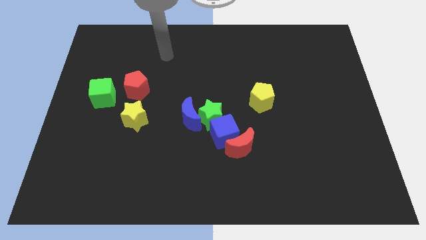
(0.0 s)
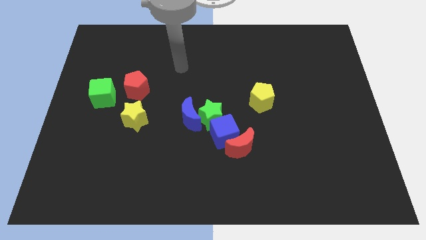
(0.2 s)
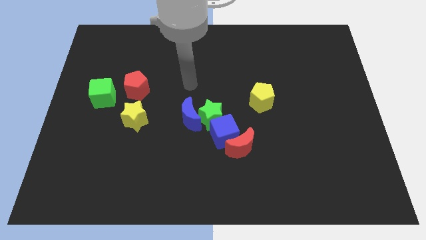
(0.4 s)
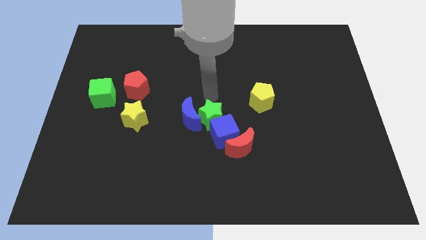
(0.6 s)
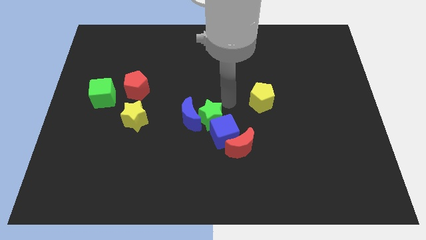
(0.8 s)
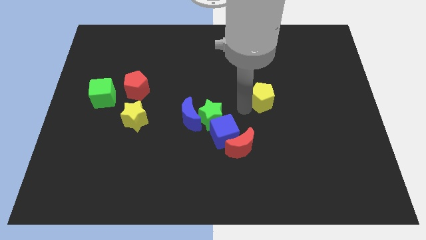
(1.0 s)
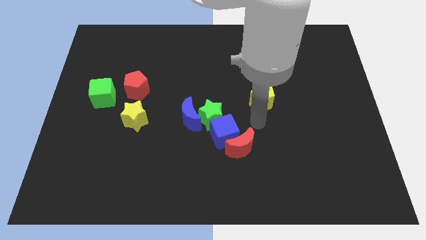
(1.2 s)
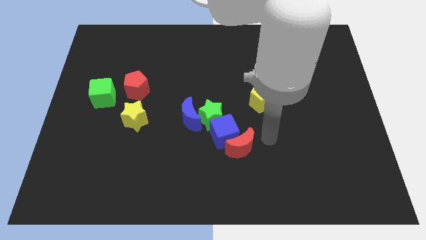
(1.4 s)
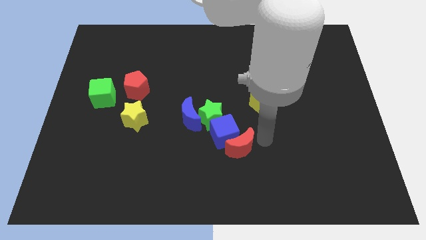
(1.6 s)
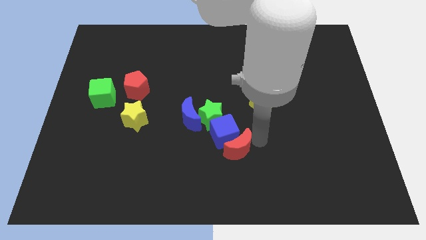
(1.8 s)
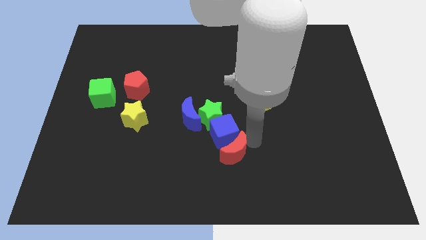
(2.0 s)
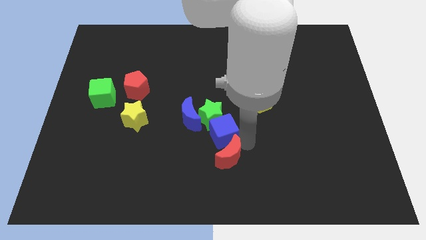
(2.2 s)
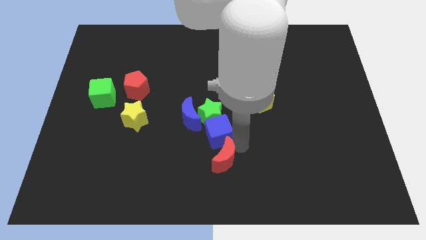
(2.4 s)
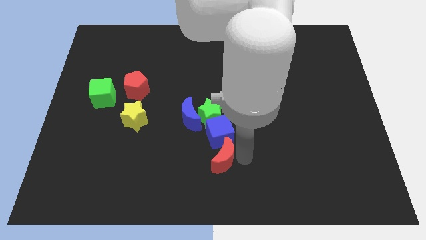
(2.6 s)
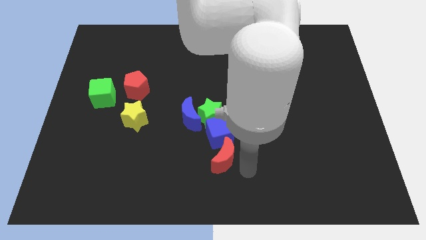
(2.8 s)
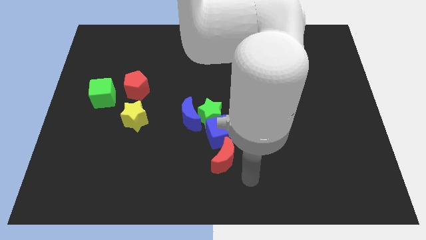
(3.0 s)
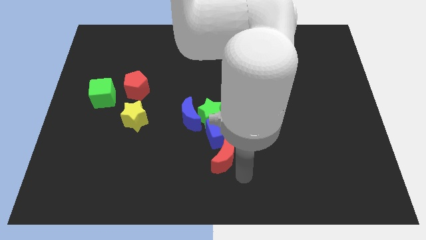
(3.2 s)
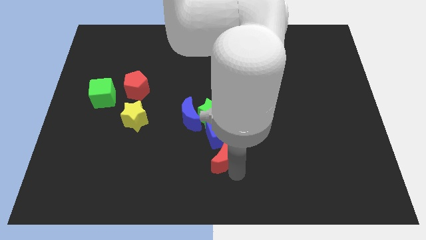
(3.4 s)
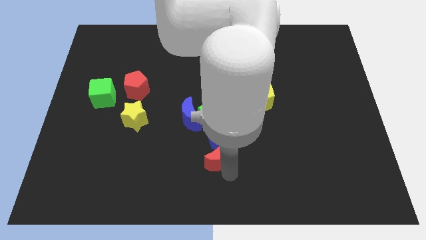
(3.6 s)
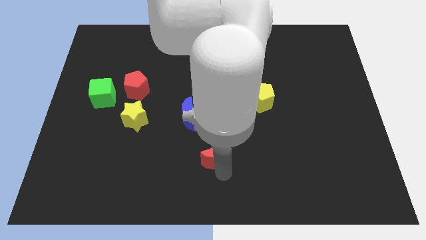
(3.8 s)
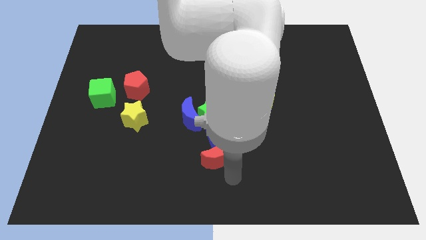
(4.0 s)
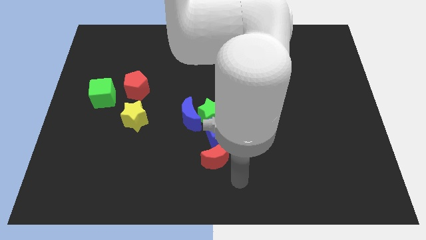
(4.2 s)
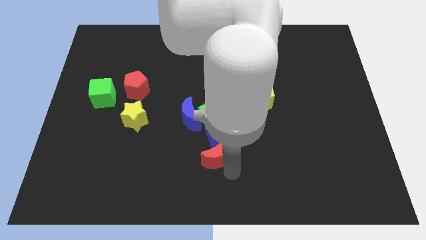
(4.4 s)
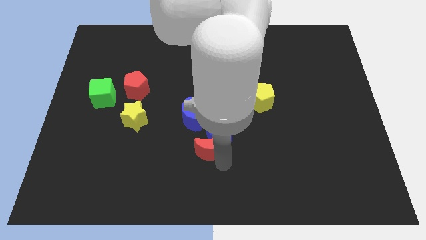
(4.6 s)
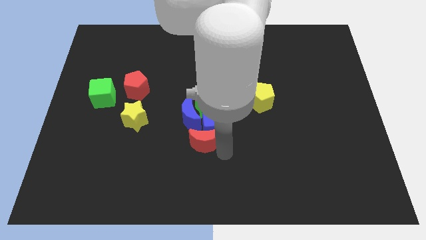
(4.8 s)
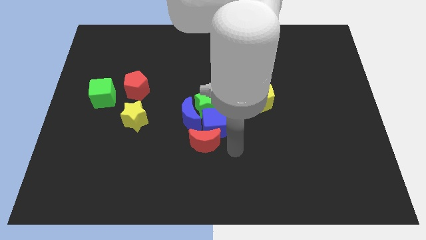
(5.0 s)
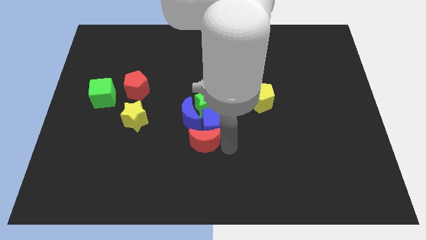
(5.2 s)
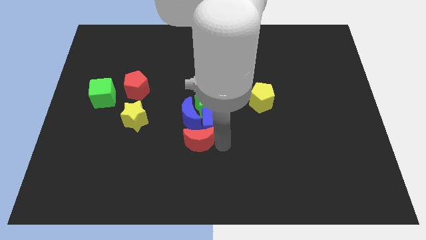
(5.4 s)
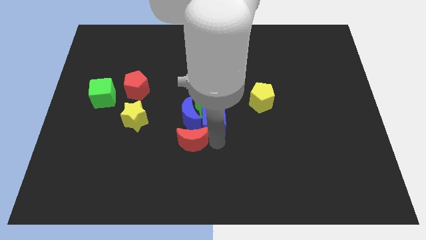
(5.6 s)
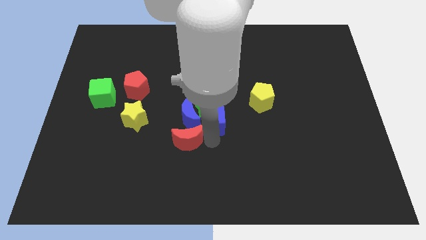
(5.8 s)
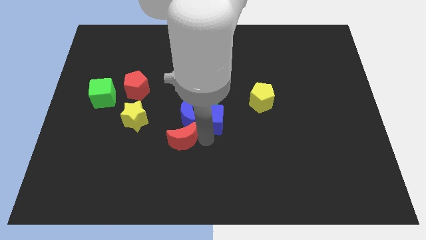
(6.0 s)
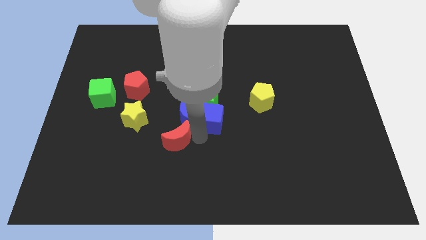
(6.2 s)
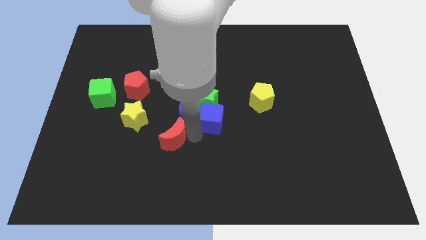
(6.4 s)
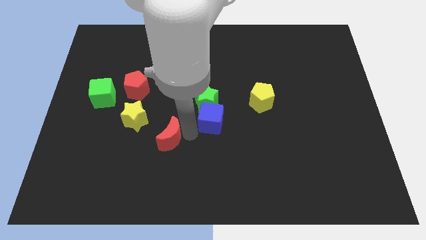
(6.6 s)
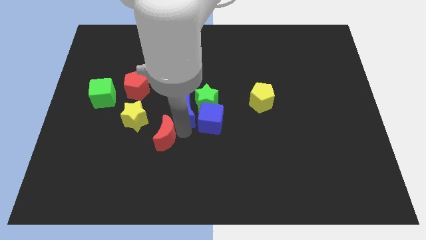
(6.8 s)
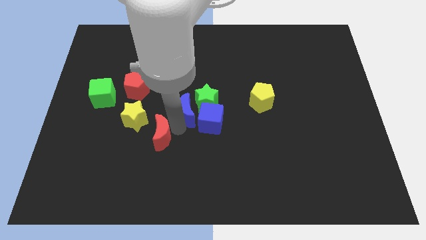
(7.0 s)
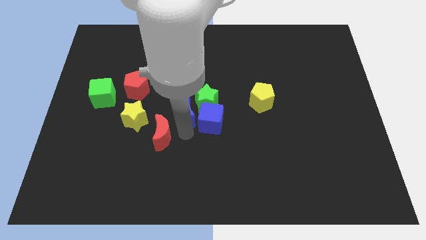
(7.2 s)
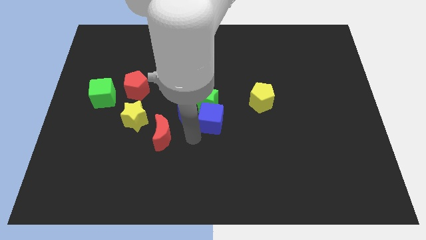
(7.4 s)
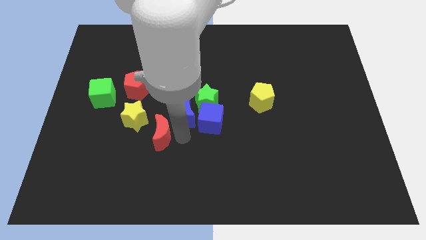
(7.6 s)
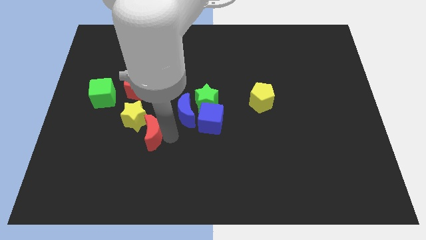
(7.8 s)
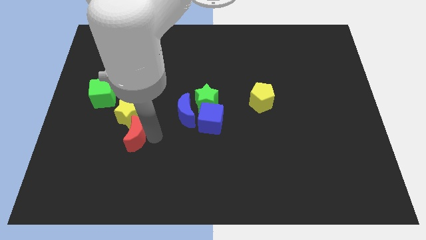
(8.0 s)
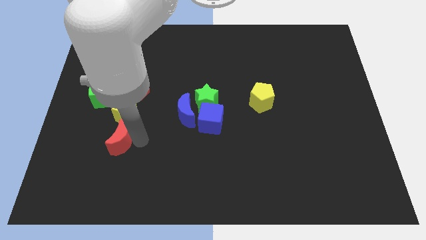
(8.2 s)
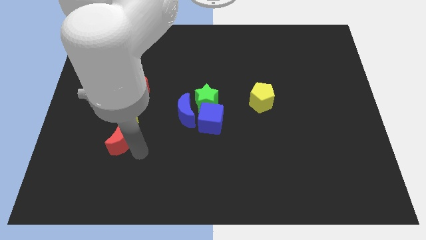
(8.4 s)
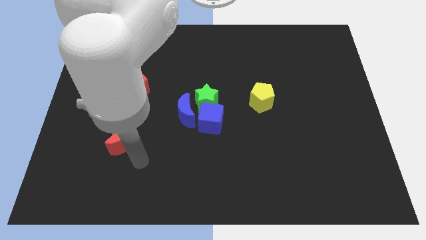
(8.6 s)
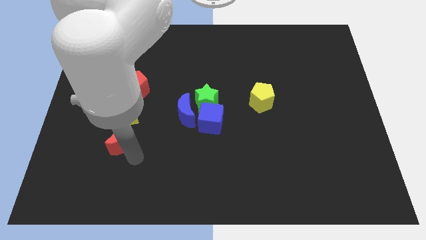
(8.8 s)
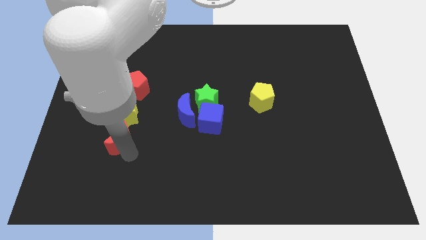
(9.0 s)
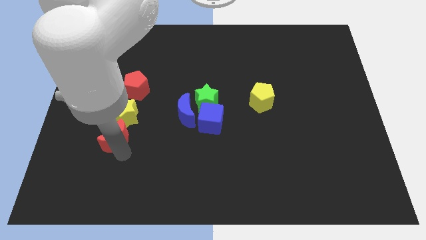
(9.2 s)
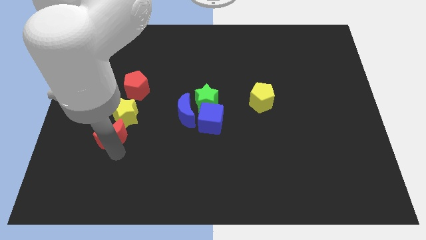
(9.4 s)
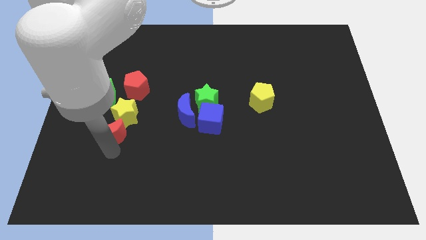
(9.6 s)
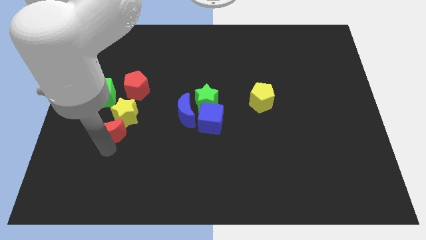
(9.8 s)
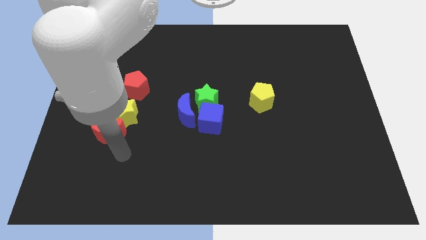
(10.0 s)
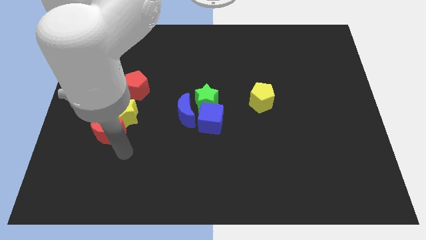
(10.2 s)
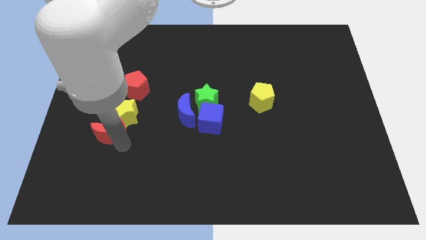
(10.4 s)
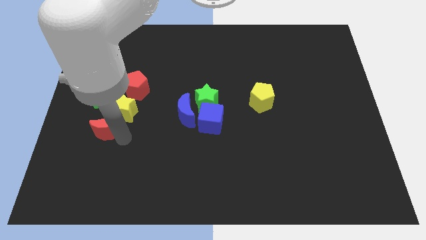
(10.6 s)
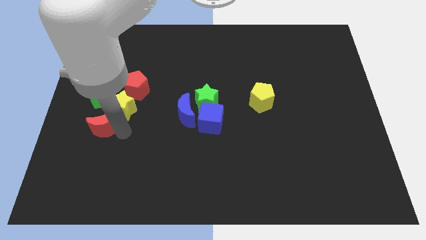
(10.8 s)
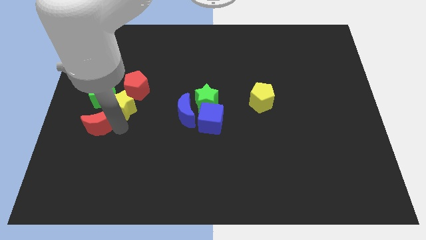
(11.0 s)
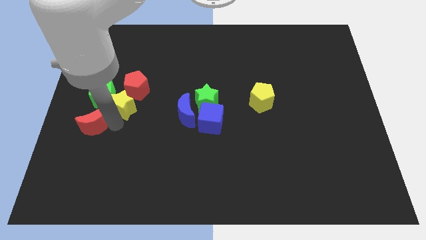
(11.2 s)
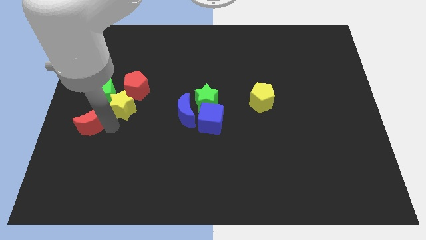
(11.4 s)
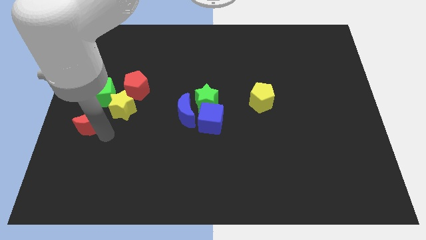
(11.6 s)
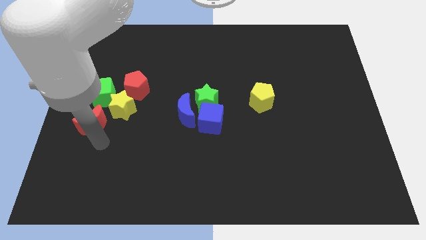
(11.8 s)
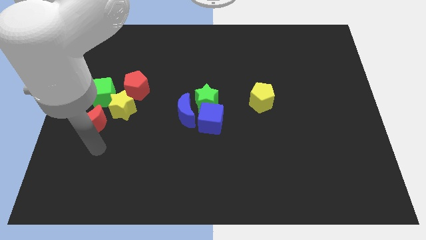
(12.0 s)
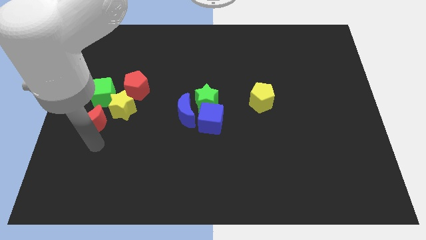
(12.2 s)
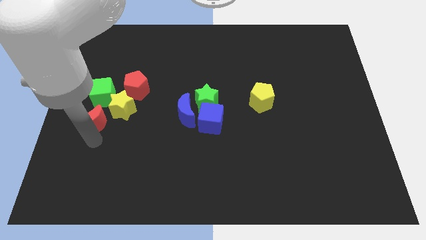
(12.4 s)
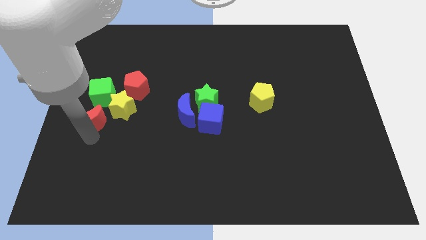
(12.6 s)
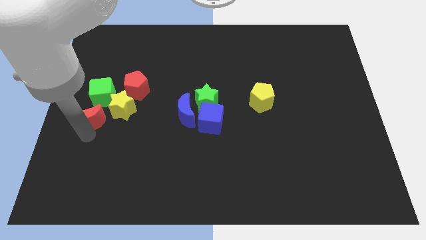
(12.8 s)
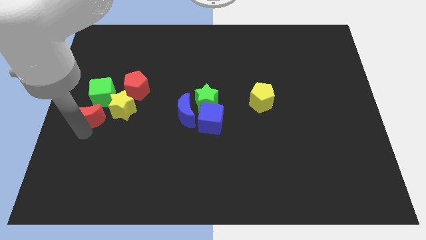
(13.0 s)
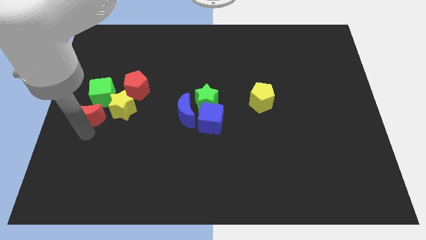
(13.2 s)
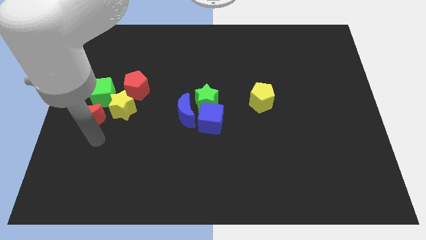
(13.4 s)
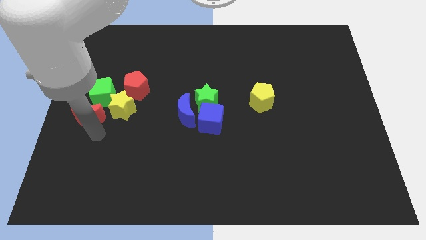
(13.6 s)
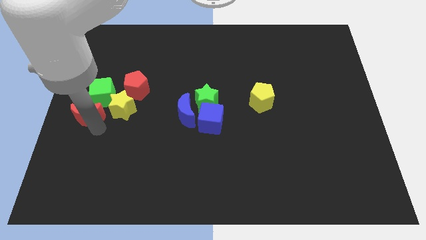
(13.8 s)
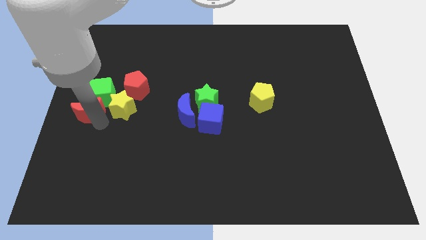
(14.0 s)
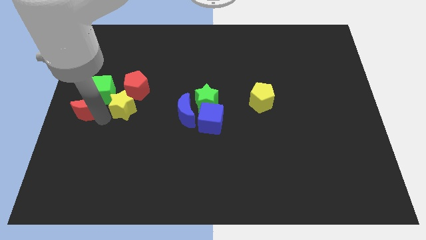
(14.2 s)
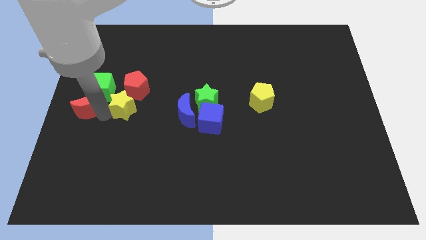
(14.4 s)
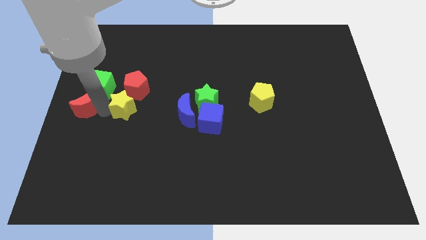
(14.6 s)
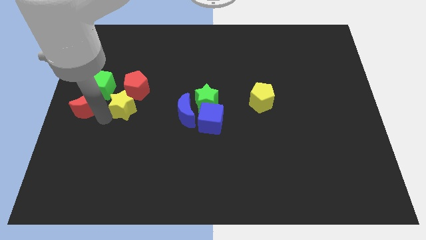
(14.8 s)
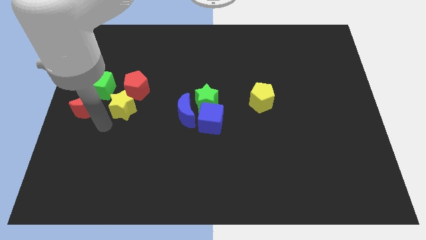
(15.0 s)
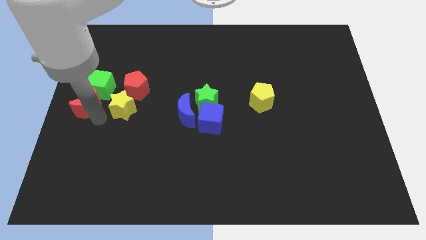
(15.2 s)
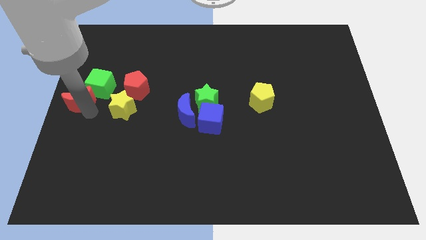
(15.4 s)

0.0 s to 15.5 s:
push the red moon to the left side of the red pentagon
